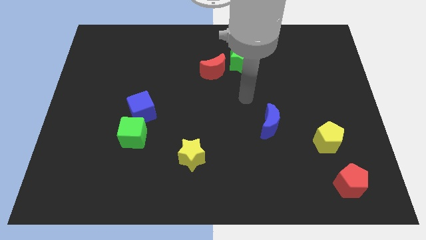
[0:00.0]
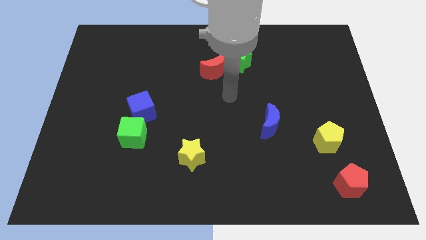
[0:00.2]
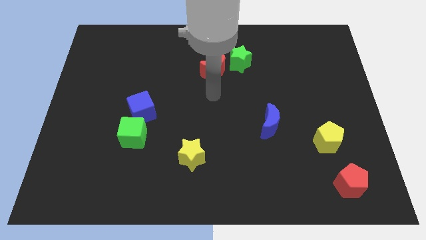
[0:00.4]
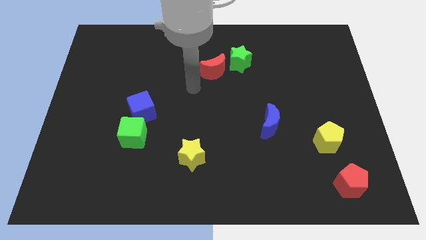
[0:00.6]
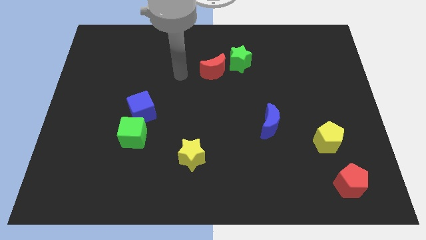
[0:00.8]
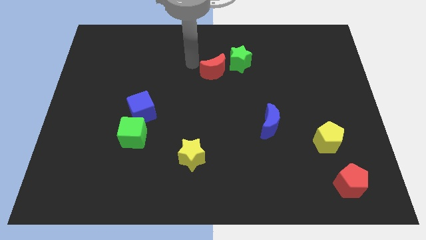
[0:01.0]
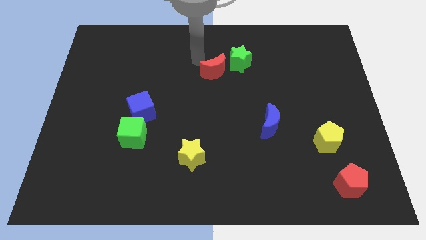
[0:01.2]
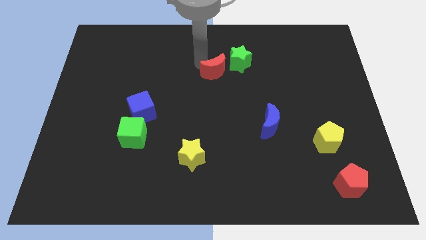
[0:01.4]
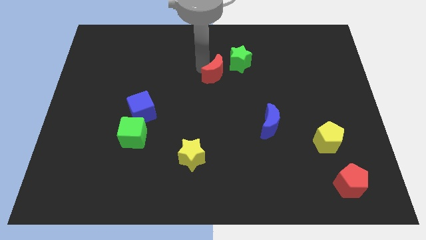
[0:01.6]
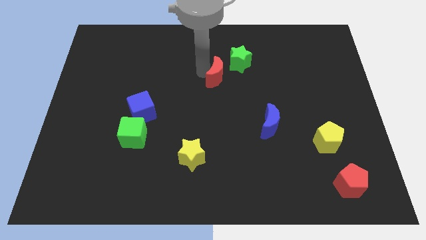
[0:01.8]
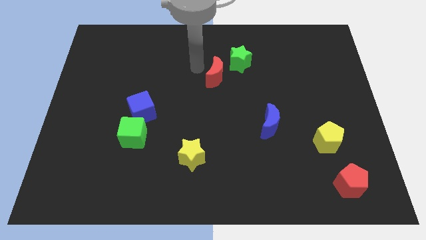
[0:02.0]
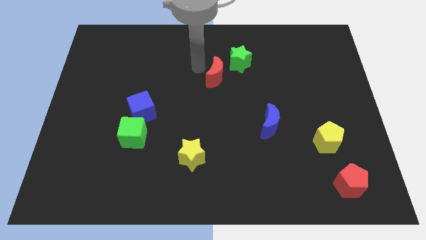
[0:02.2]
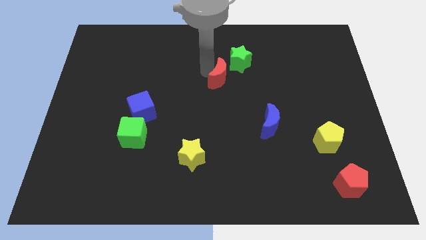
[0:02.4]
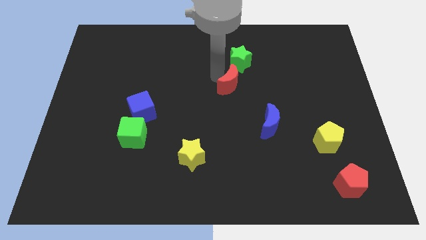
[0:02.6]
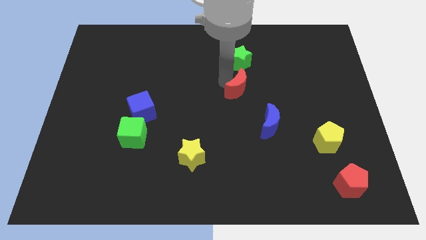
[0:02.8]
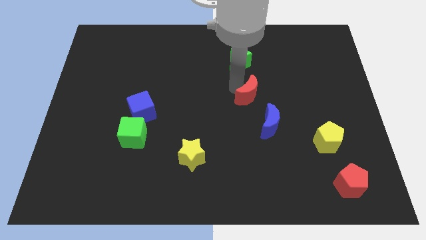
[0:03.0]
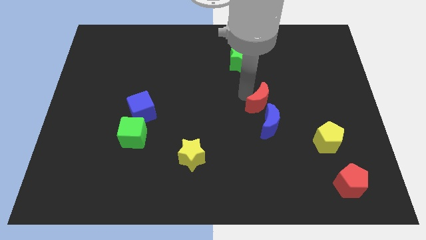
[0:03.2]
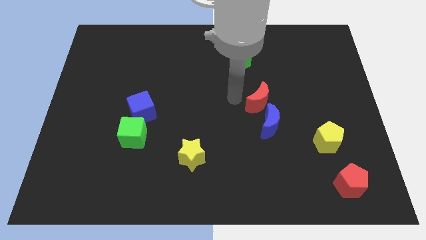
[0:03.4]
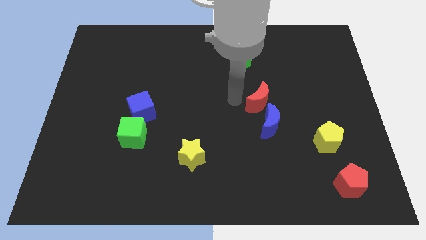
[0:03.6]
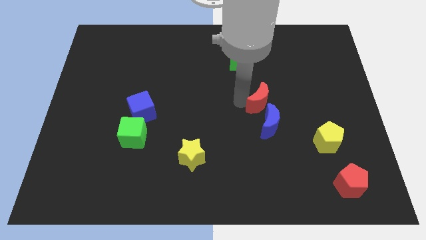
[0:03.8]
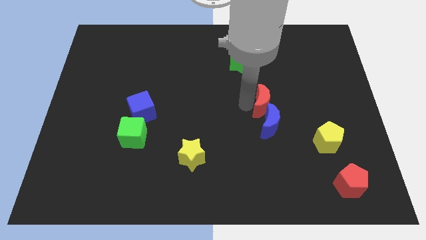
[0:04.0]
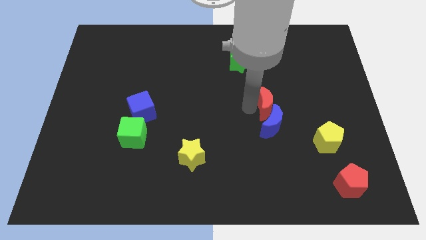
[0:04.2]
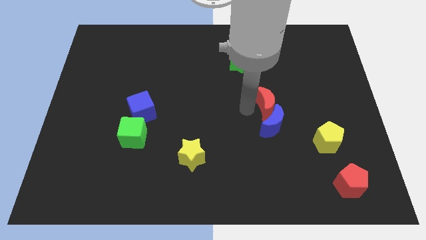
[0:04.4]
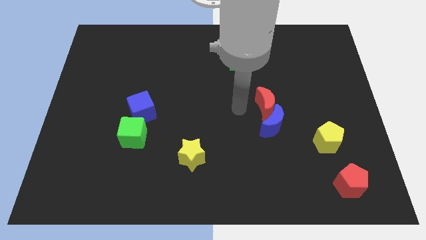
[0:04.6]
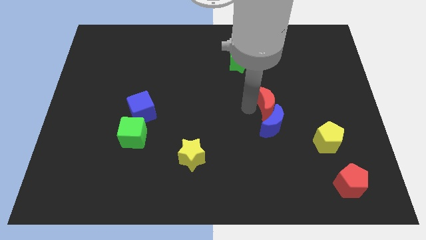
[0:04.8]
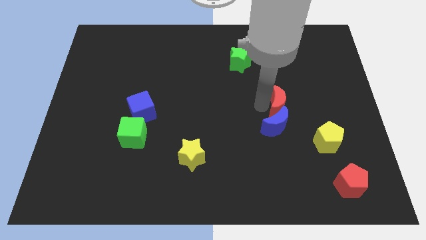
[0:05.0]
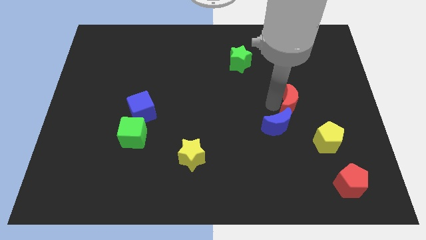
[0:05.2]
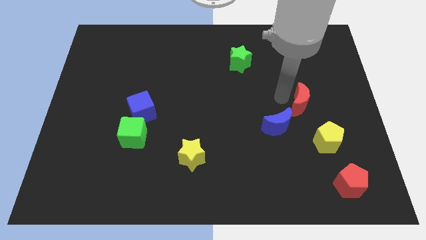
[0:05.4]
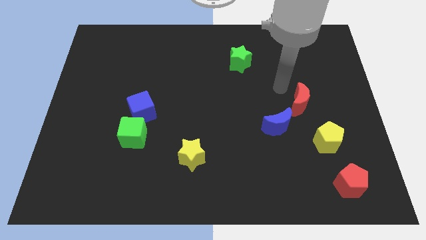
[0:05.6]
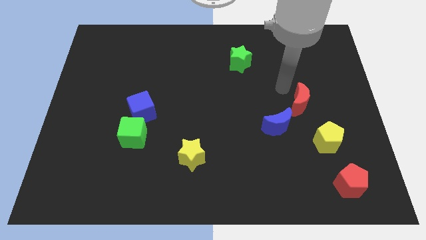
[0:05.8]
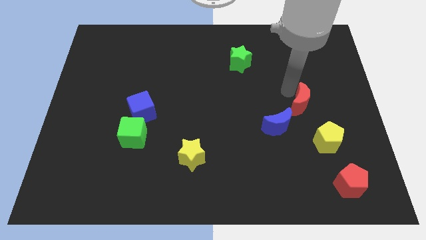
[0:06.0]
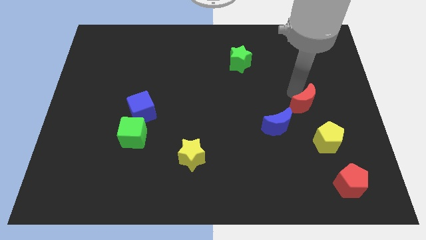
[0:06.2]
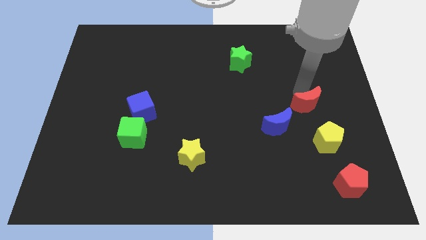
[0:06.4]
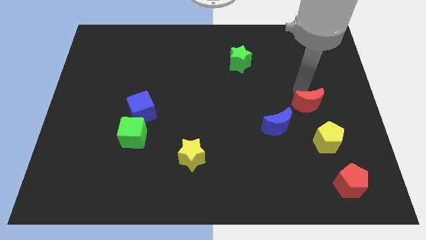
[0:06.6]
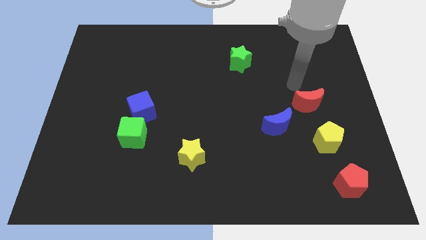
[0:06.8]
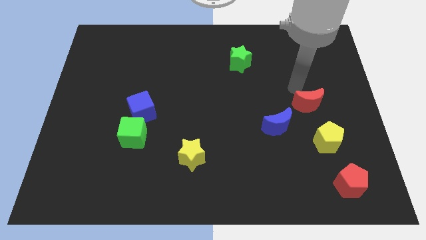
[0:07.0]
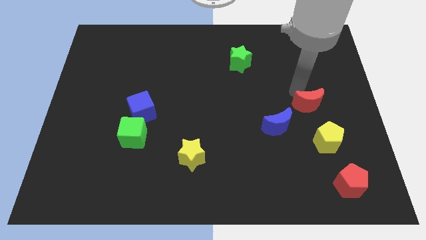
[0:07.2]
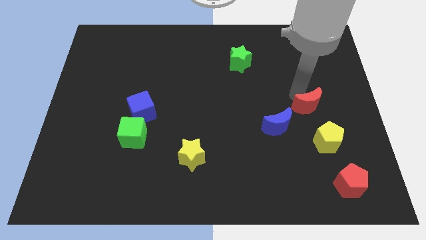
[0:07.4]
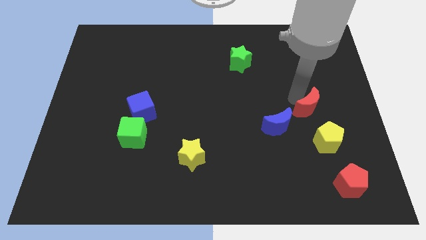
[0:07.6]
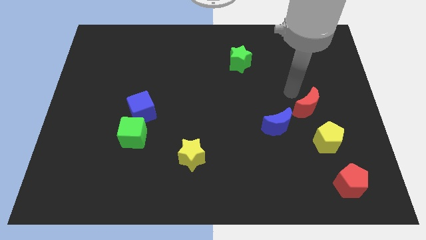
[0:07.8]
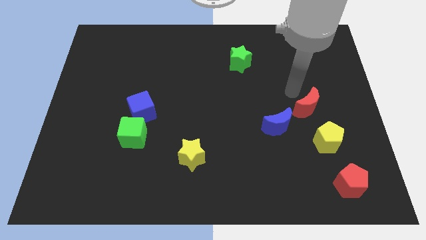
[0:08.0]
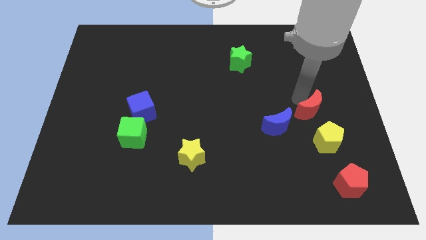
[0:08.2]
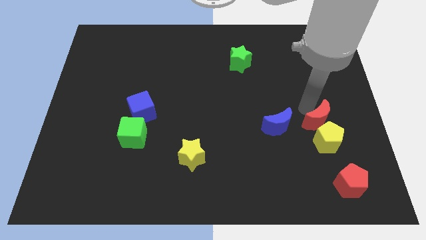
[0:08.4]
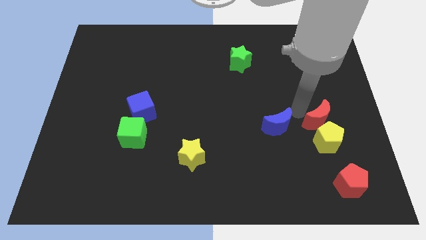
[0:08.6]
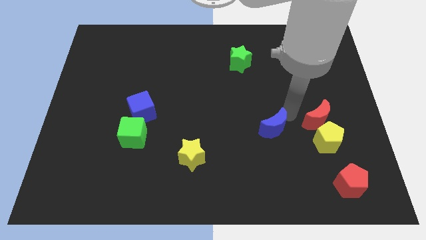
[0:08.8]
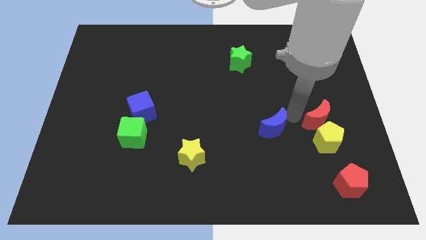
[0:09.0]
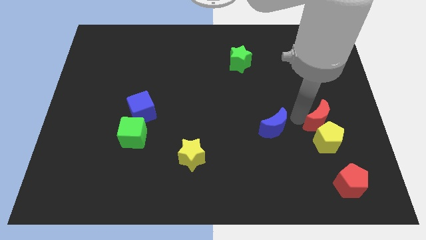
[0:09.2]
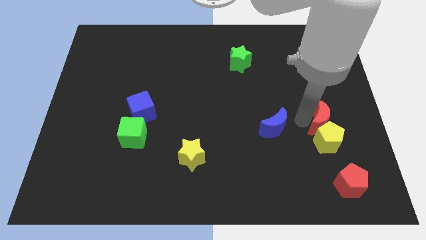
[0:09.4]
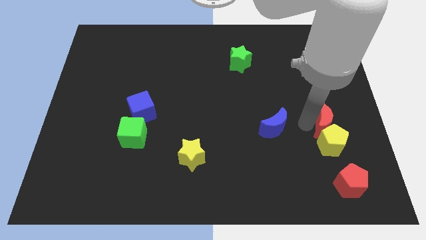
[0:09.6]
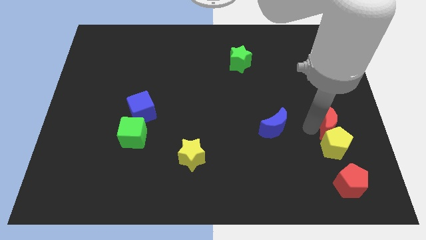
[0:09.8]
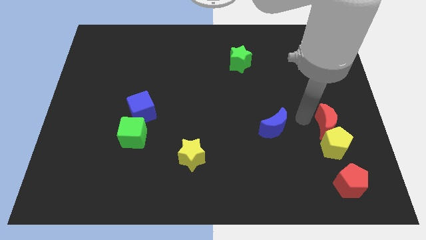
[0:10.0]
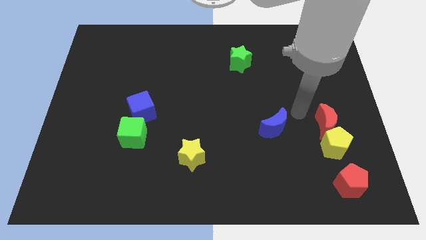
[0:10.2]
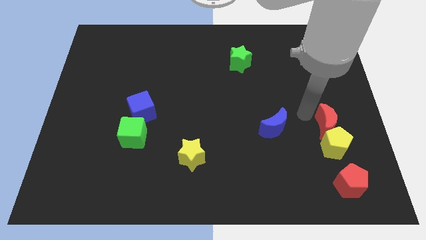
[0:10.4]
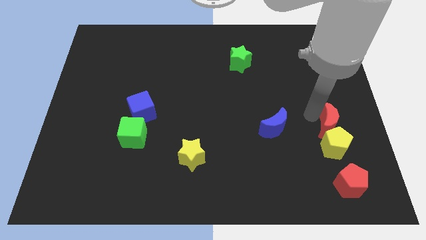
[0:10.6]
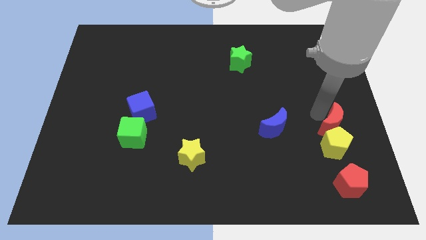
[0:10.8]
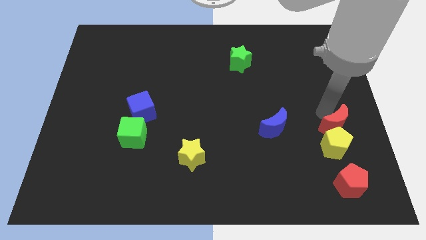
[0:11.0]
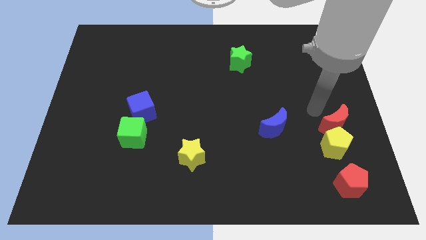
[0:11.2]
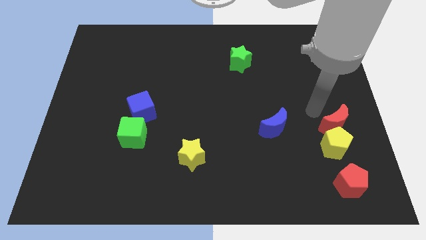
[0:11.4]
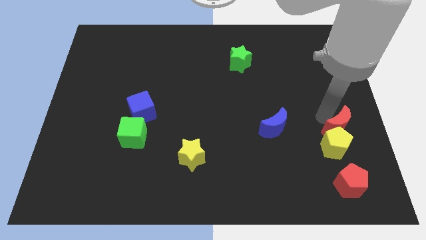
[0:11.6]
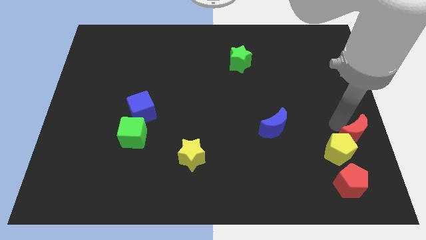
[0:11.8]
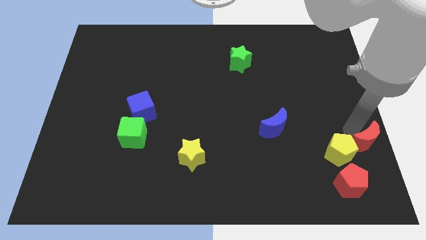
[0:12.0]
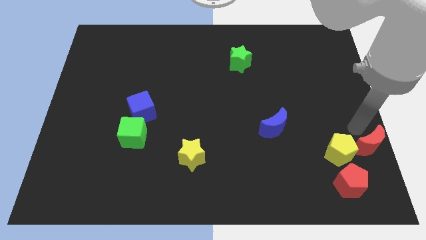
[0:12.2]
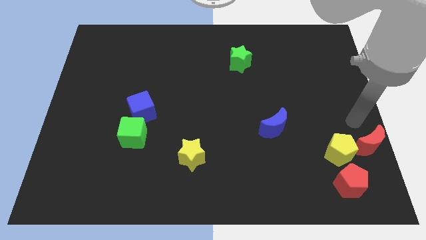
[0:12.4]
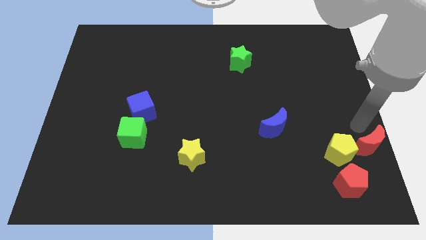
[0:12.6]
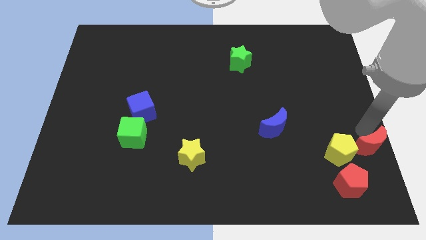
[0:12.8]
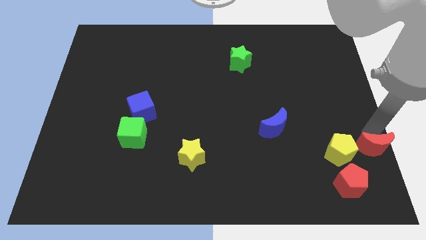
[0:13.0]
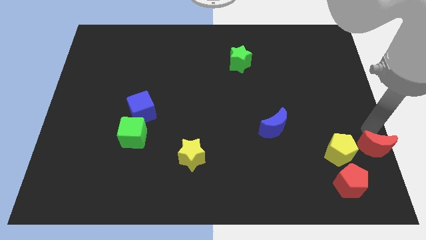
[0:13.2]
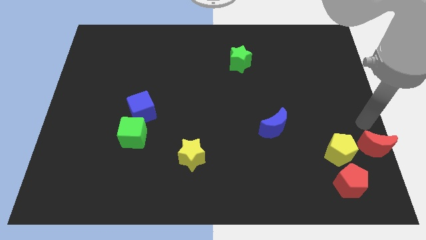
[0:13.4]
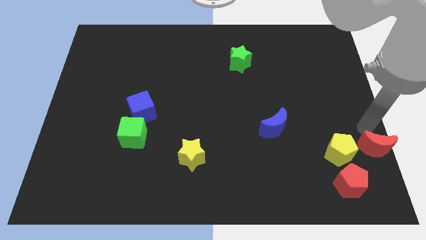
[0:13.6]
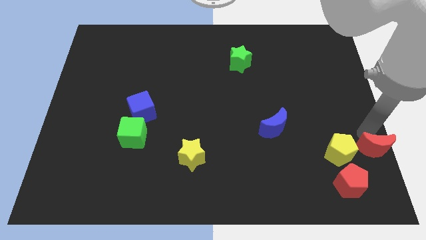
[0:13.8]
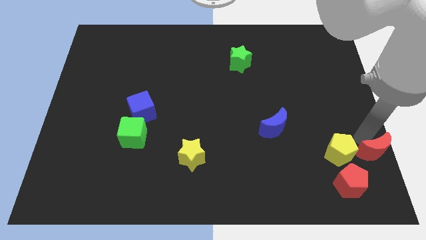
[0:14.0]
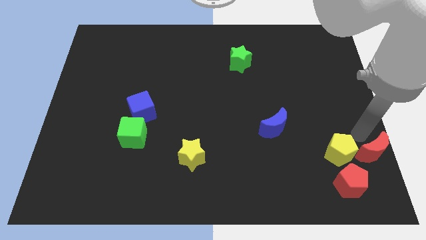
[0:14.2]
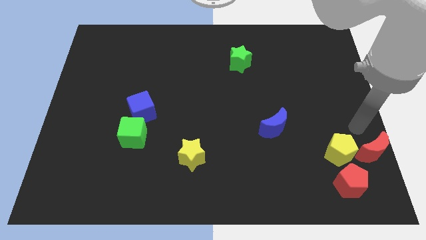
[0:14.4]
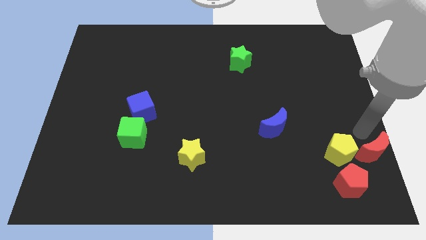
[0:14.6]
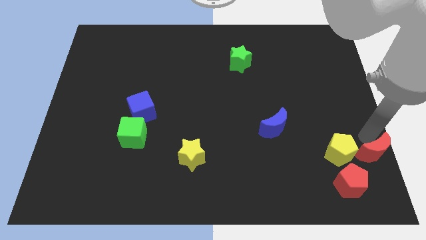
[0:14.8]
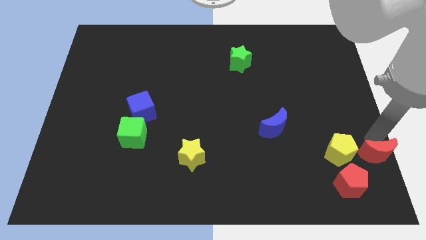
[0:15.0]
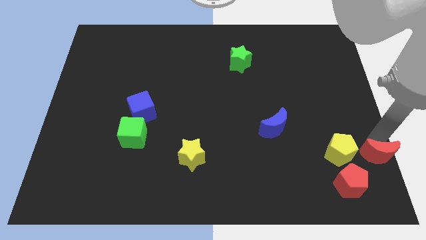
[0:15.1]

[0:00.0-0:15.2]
move the red moon to the bottom right of the board
